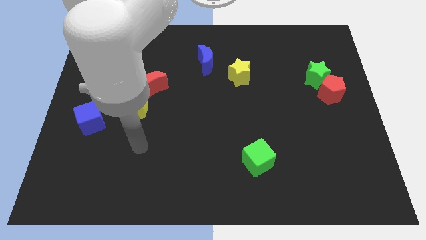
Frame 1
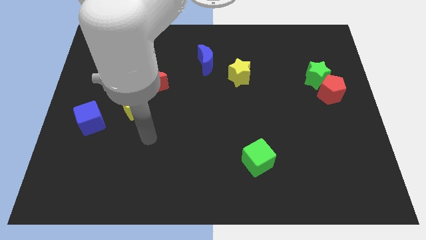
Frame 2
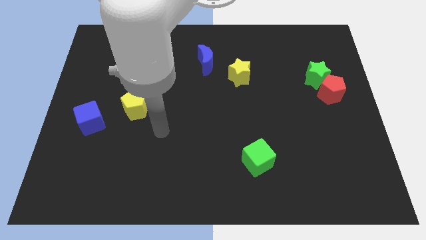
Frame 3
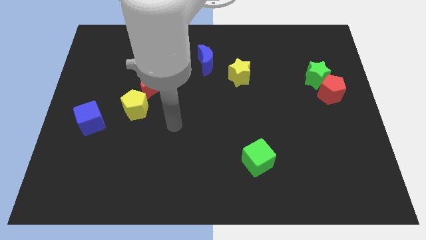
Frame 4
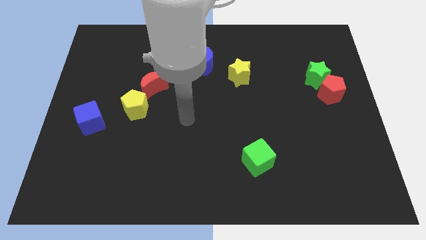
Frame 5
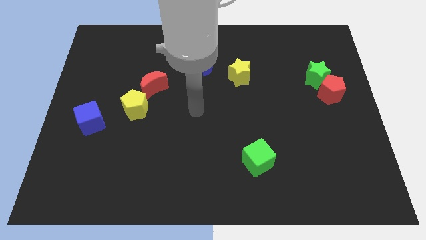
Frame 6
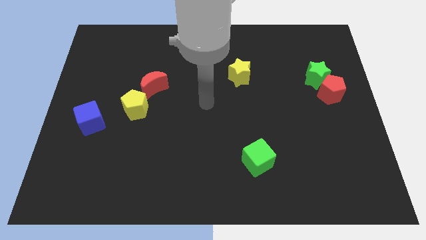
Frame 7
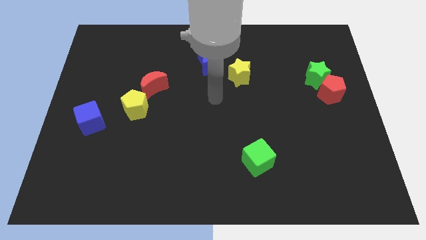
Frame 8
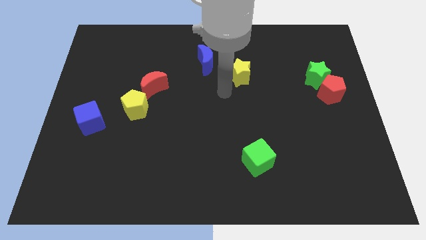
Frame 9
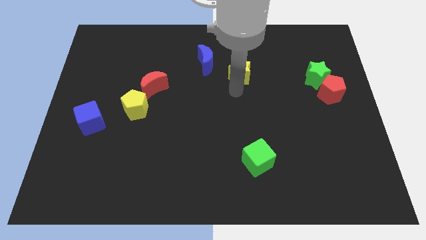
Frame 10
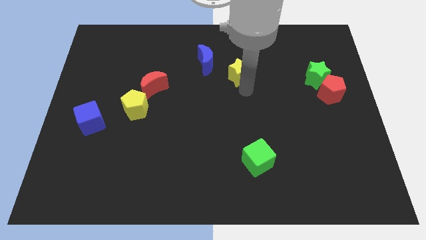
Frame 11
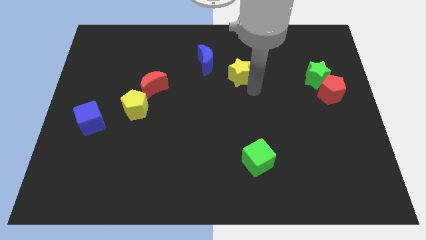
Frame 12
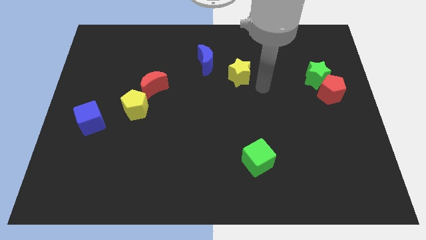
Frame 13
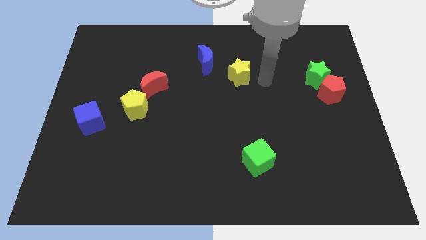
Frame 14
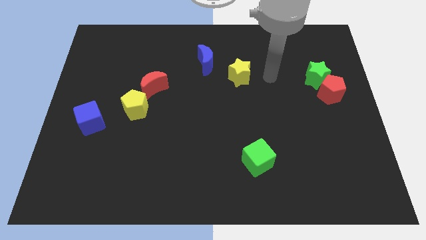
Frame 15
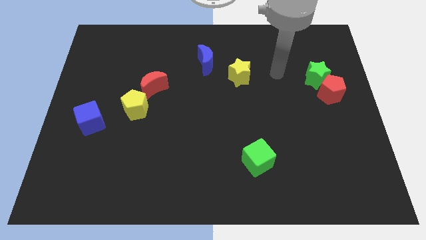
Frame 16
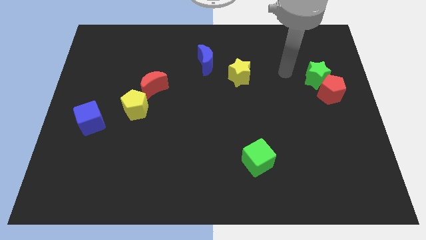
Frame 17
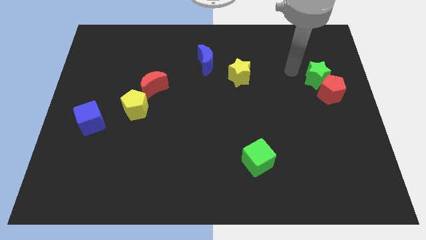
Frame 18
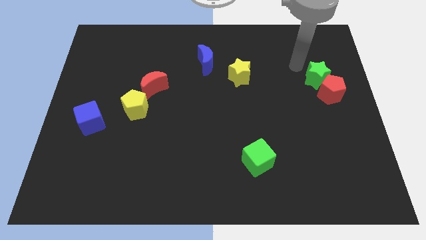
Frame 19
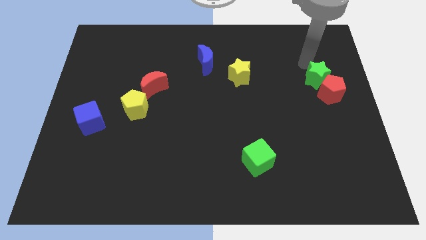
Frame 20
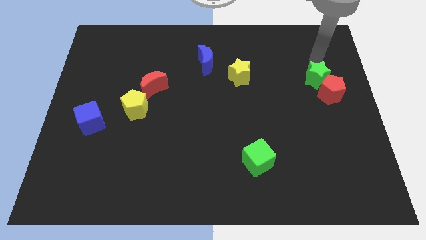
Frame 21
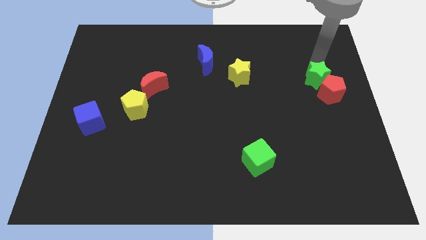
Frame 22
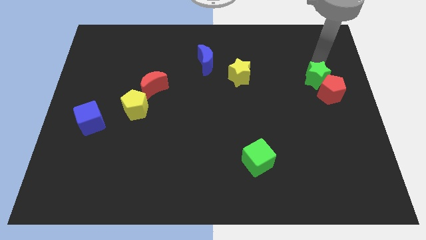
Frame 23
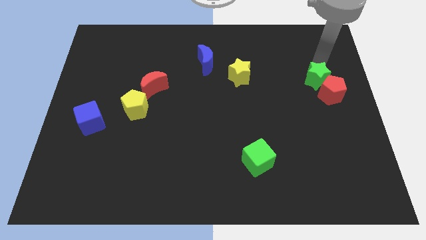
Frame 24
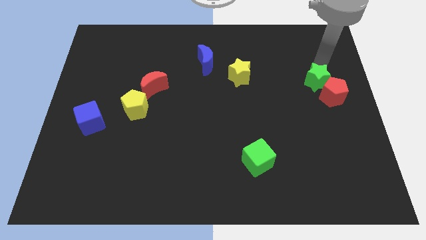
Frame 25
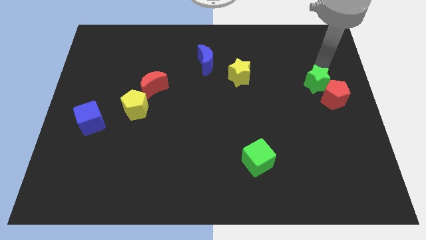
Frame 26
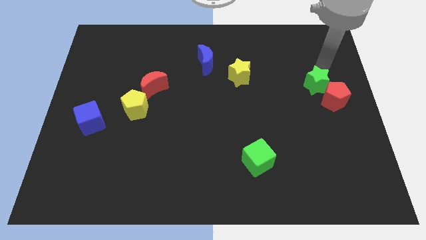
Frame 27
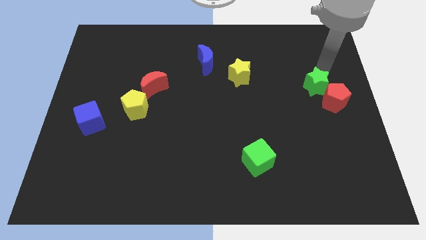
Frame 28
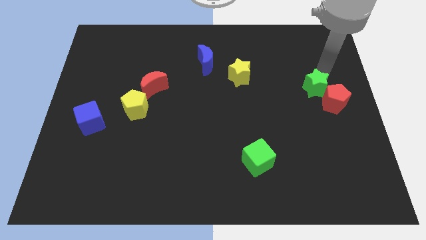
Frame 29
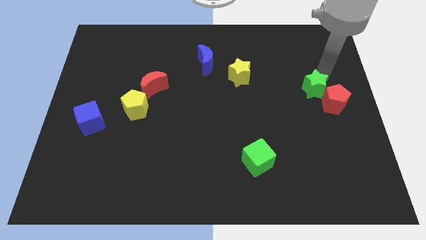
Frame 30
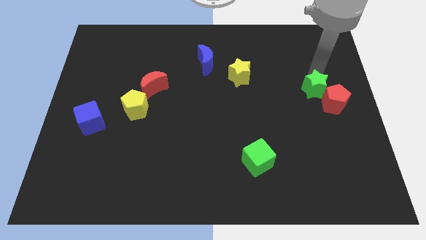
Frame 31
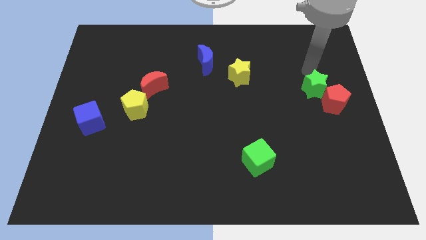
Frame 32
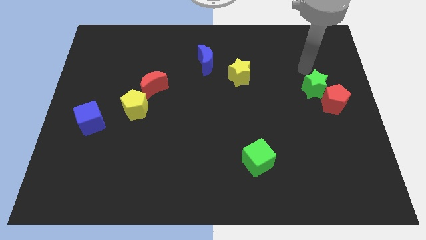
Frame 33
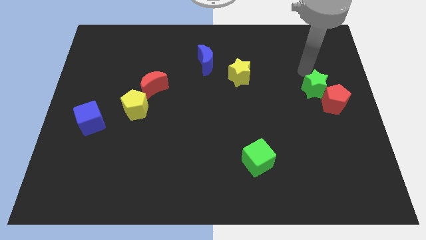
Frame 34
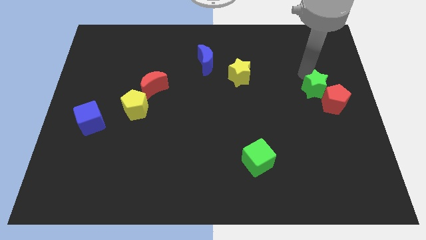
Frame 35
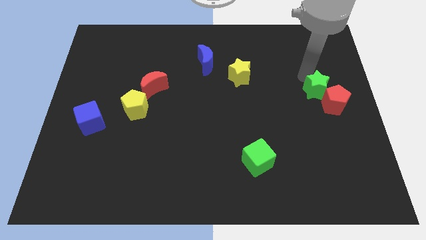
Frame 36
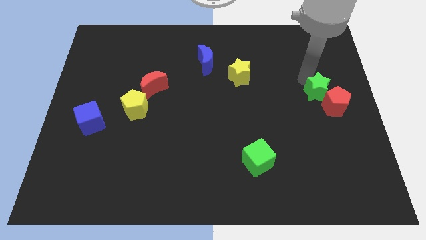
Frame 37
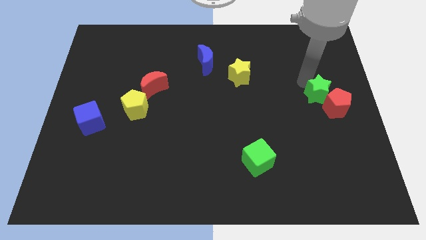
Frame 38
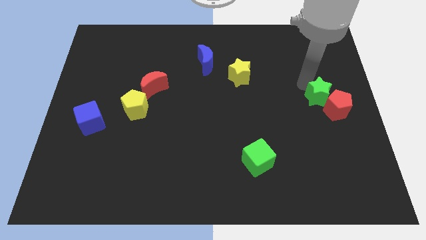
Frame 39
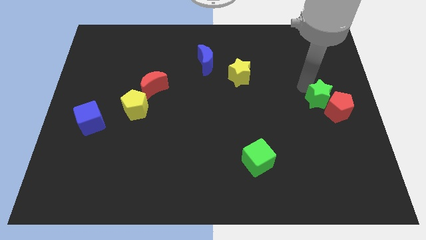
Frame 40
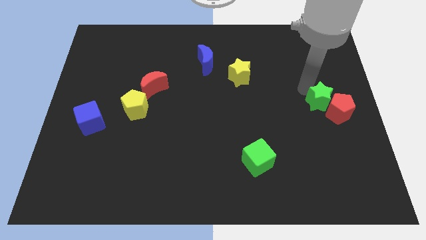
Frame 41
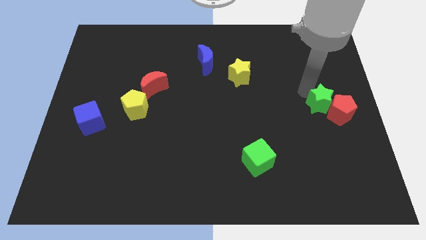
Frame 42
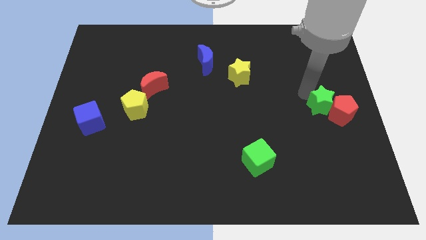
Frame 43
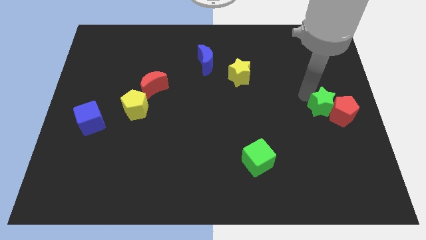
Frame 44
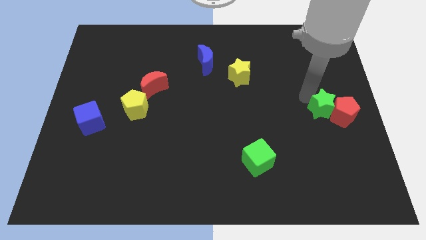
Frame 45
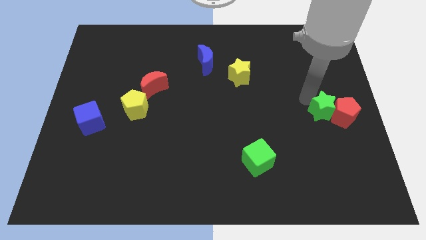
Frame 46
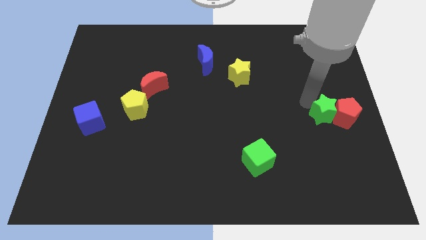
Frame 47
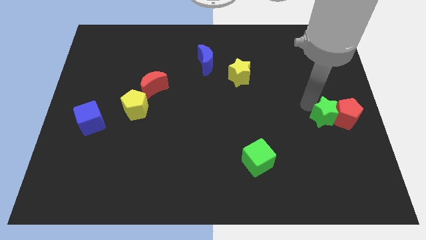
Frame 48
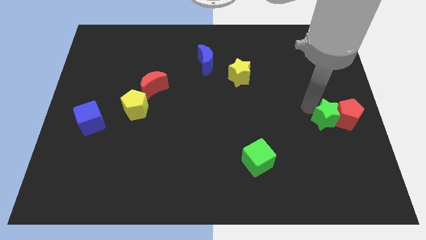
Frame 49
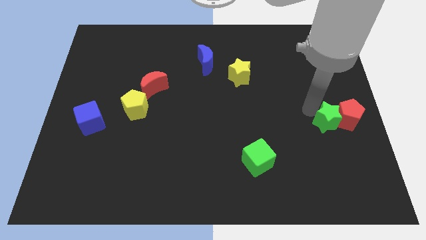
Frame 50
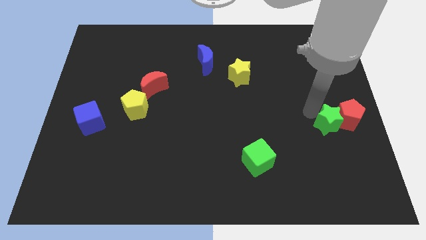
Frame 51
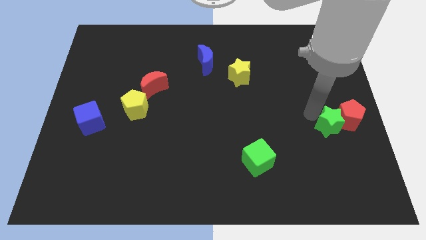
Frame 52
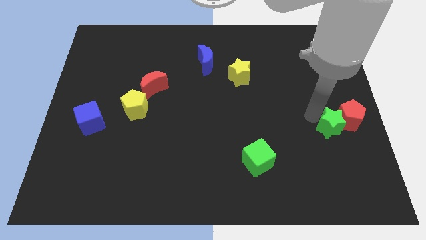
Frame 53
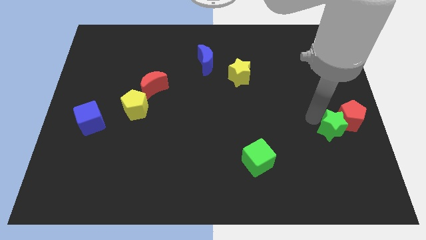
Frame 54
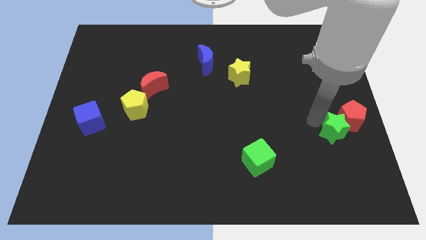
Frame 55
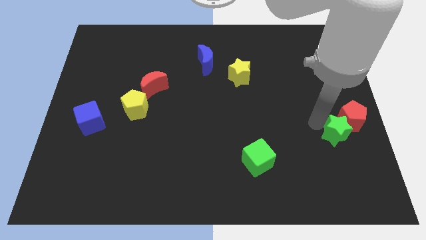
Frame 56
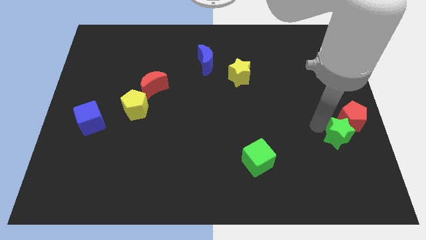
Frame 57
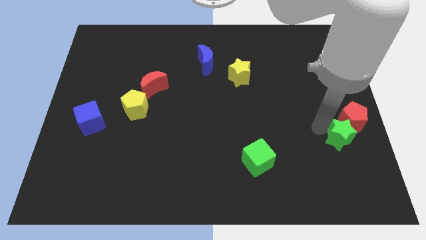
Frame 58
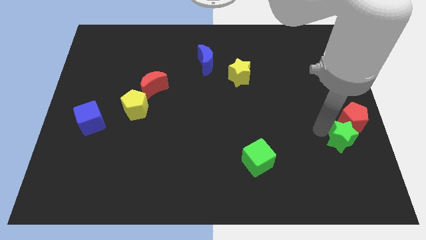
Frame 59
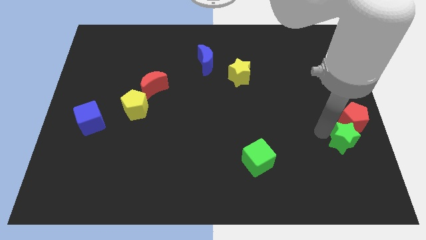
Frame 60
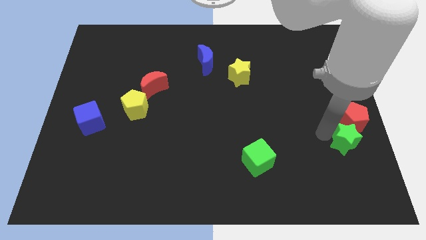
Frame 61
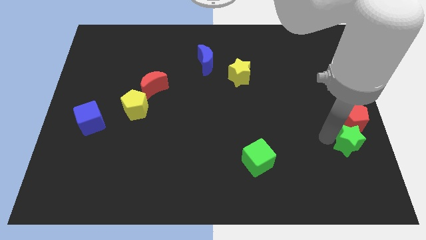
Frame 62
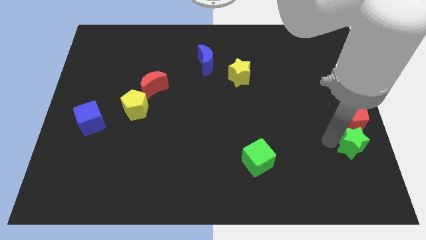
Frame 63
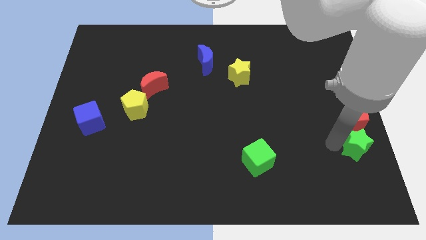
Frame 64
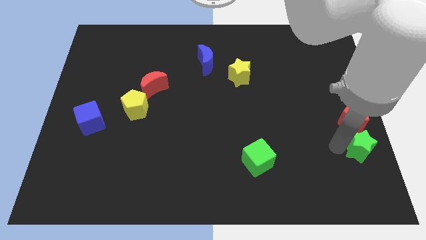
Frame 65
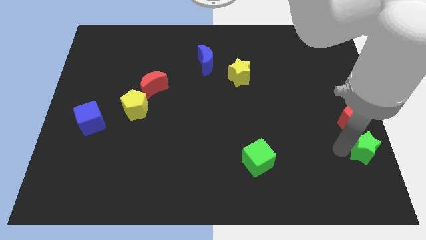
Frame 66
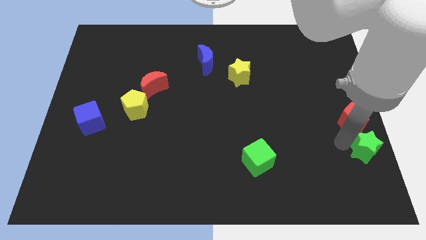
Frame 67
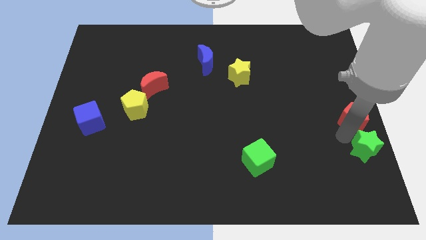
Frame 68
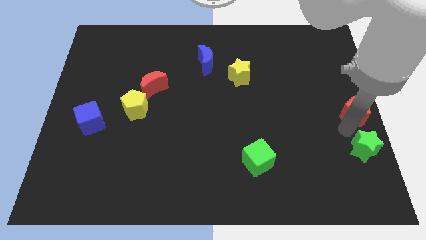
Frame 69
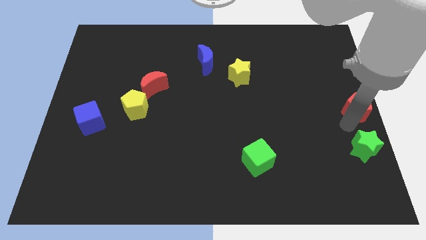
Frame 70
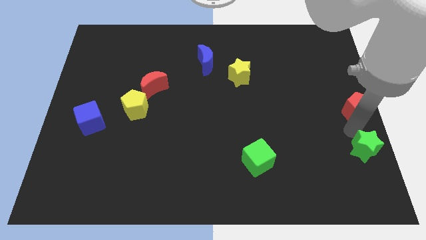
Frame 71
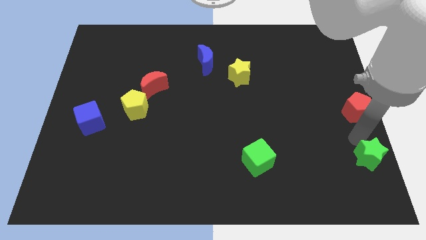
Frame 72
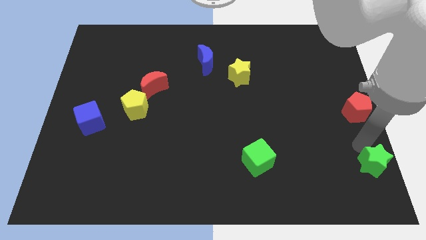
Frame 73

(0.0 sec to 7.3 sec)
slide the green star to the bottom right of the board
